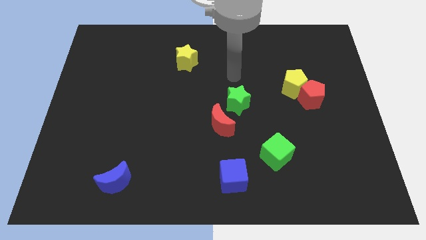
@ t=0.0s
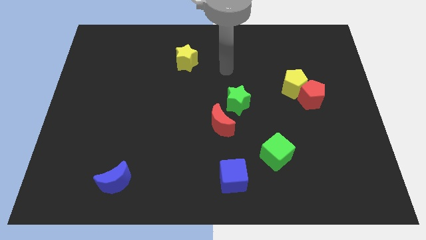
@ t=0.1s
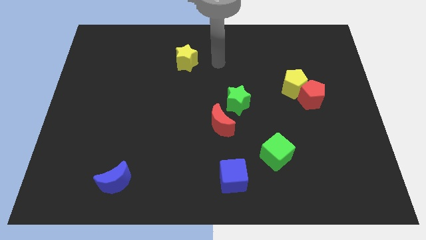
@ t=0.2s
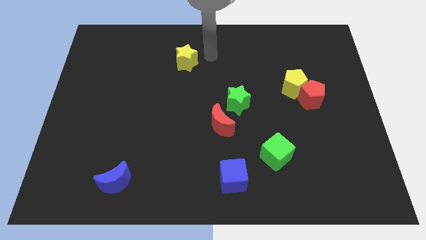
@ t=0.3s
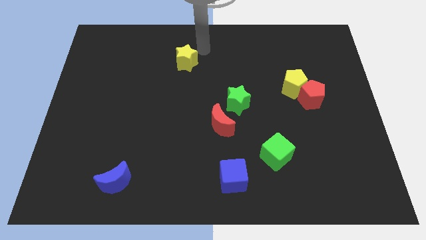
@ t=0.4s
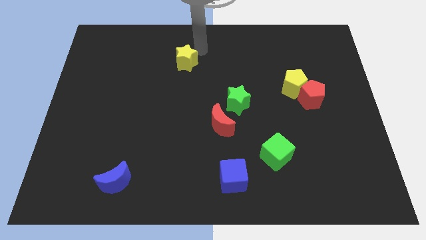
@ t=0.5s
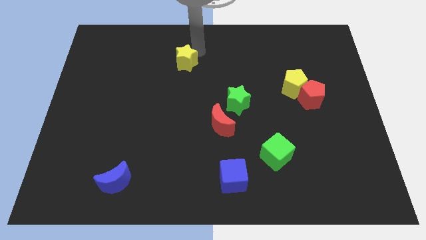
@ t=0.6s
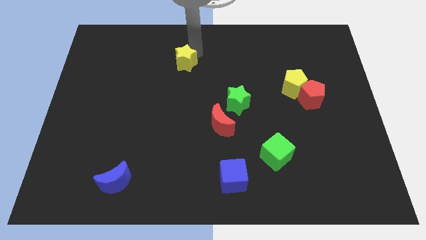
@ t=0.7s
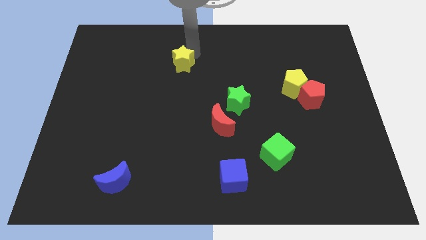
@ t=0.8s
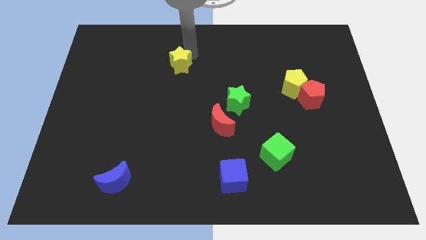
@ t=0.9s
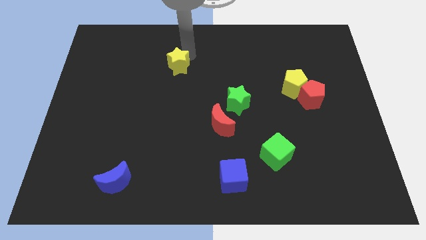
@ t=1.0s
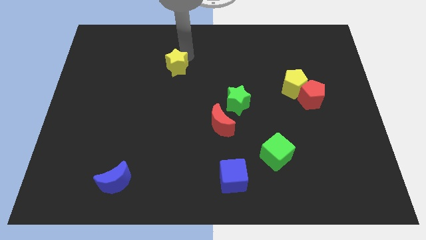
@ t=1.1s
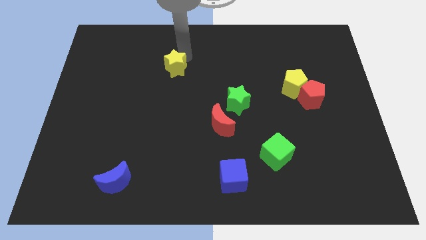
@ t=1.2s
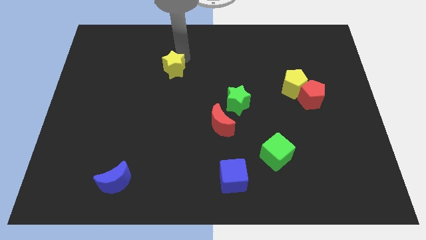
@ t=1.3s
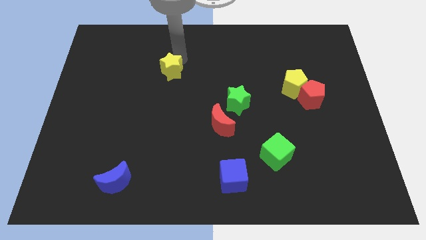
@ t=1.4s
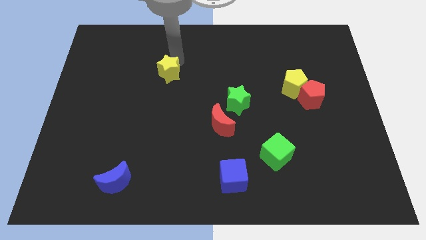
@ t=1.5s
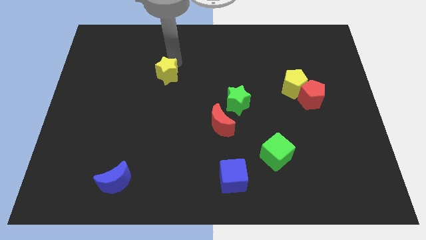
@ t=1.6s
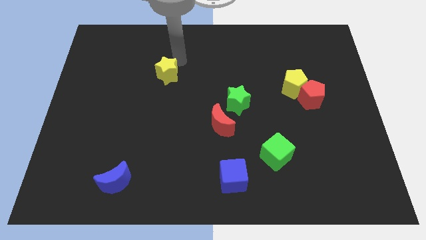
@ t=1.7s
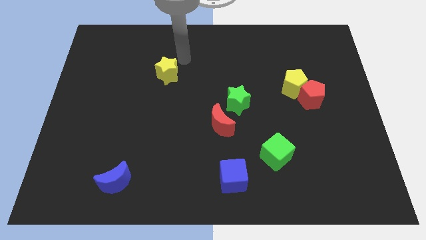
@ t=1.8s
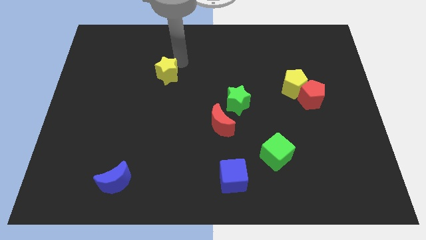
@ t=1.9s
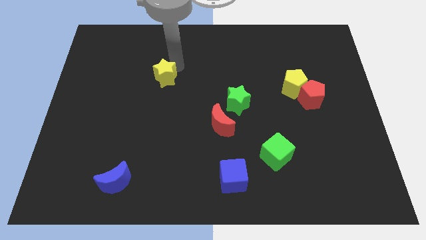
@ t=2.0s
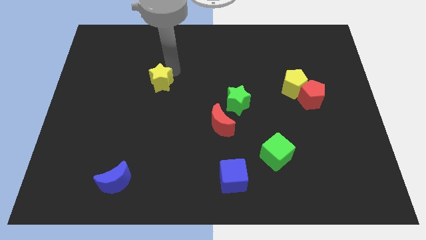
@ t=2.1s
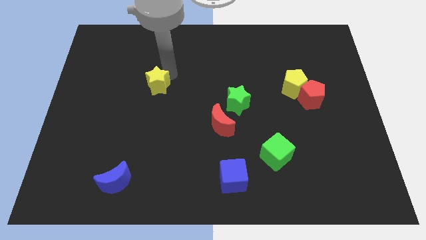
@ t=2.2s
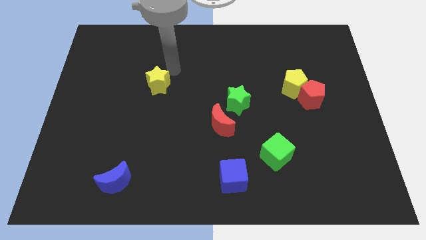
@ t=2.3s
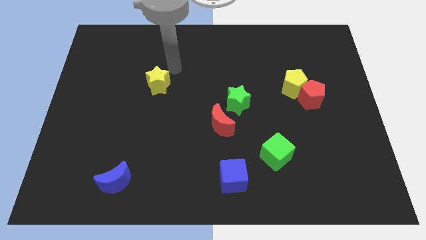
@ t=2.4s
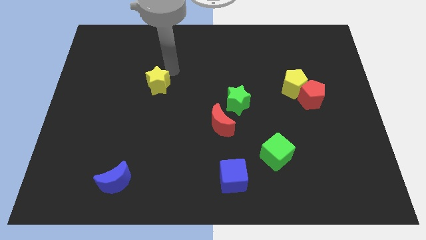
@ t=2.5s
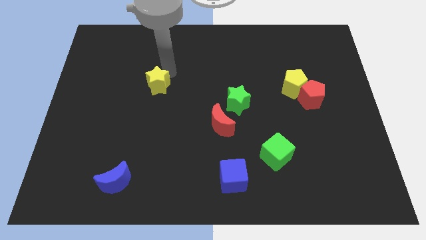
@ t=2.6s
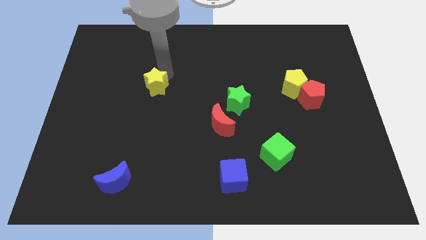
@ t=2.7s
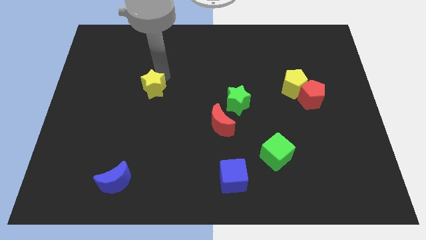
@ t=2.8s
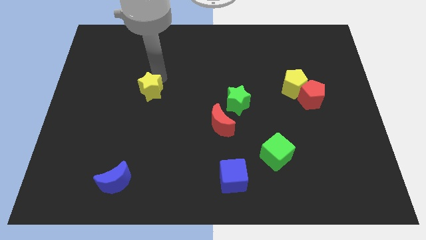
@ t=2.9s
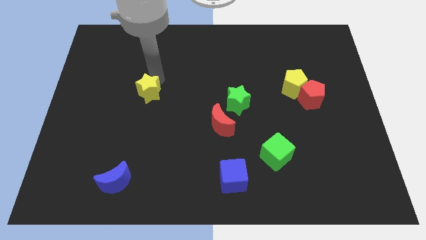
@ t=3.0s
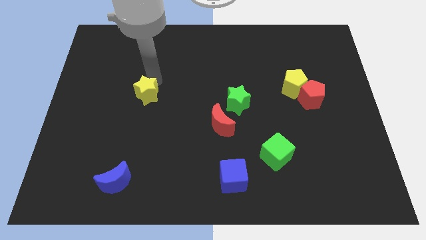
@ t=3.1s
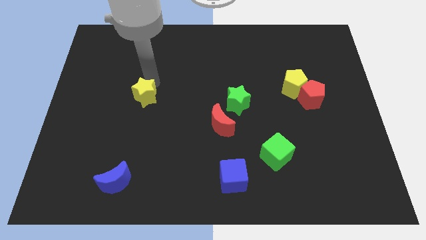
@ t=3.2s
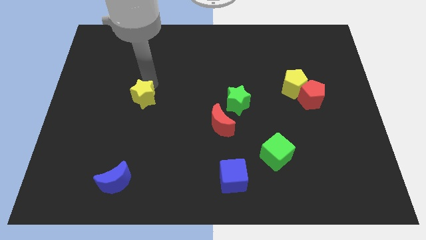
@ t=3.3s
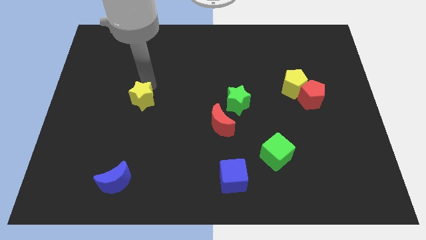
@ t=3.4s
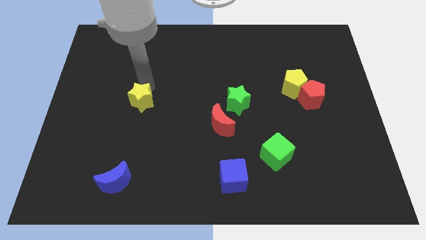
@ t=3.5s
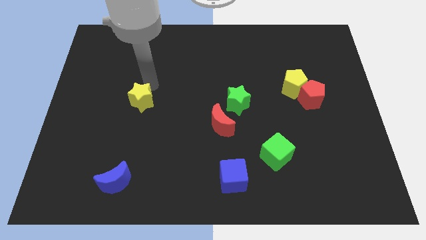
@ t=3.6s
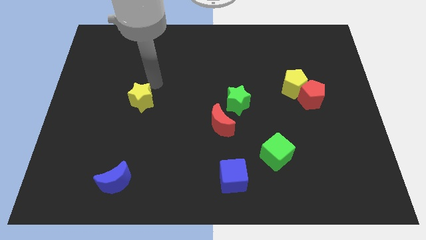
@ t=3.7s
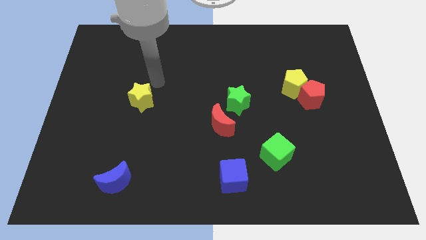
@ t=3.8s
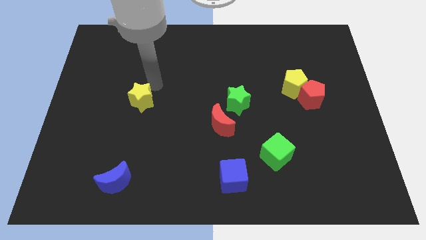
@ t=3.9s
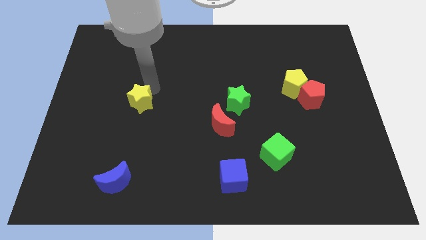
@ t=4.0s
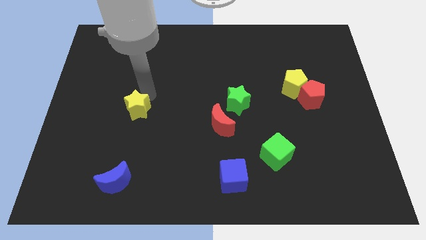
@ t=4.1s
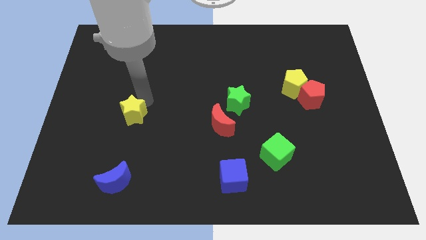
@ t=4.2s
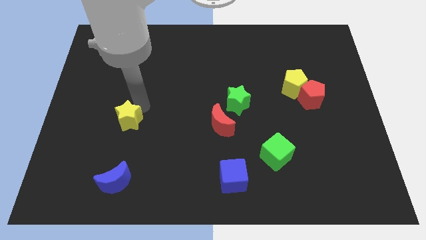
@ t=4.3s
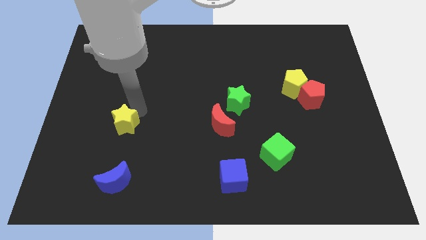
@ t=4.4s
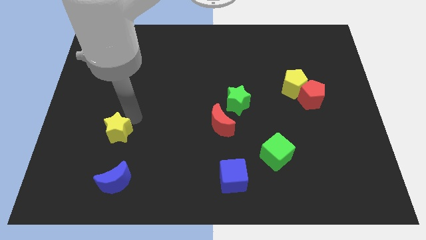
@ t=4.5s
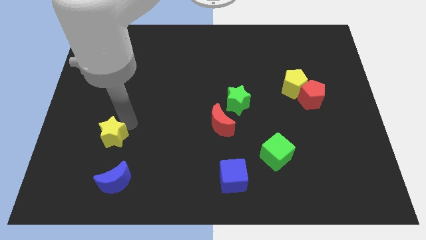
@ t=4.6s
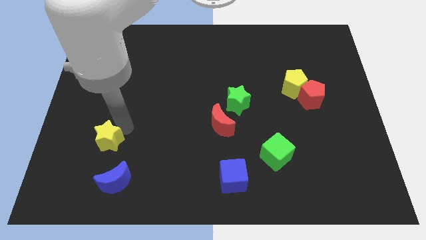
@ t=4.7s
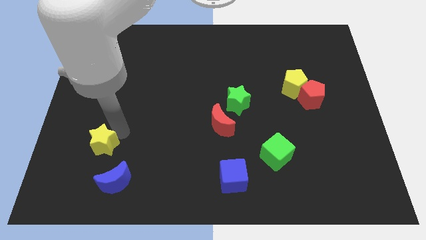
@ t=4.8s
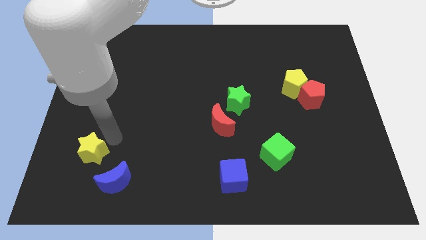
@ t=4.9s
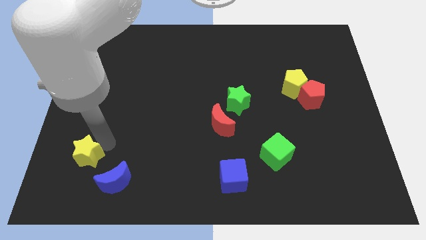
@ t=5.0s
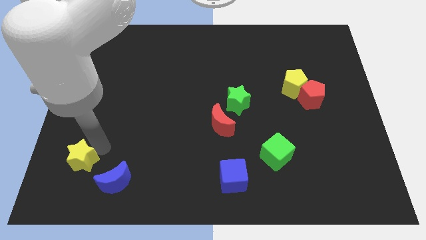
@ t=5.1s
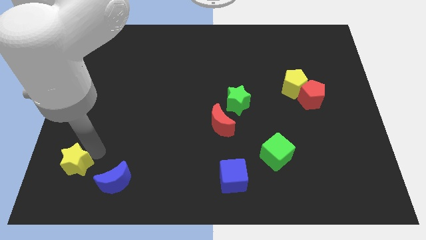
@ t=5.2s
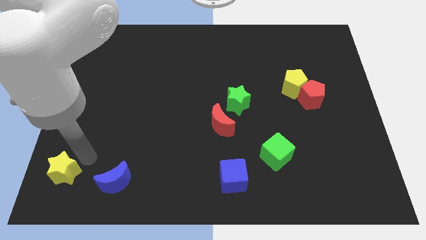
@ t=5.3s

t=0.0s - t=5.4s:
move the yellow star to the bottom left of the board

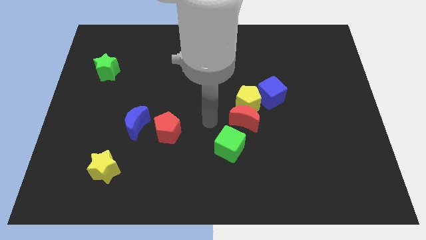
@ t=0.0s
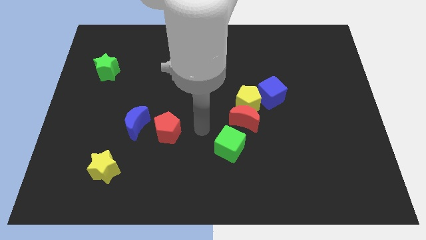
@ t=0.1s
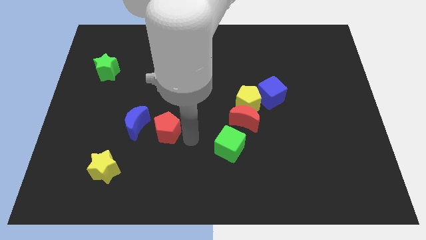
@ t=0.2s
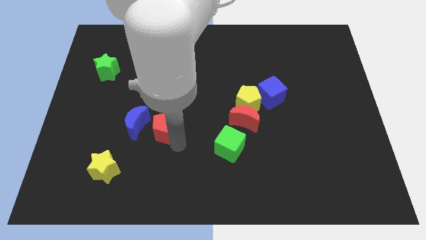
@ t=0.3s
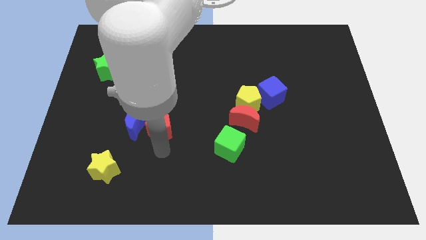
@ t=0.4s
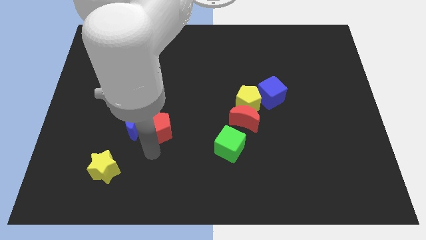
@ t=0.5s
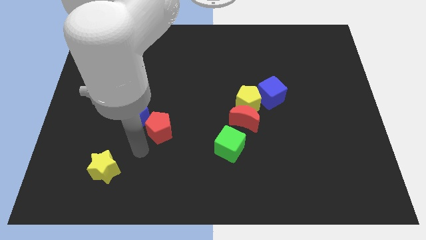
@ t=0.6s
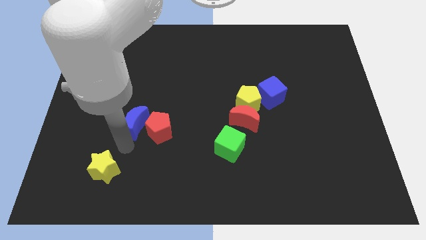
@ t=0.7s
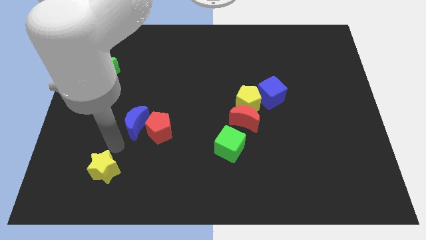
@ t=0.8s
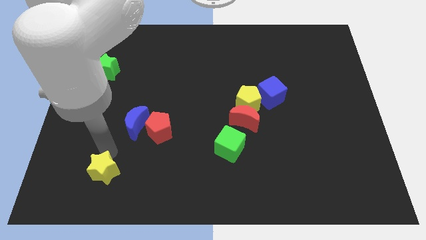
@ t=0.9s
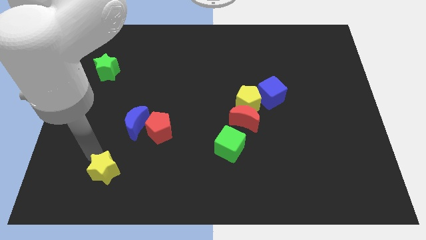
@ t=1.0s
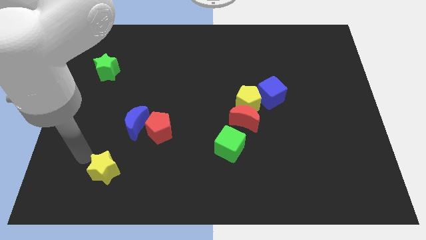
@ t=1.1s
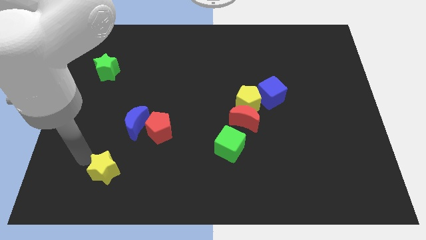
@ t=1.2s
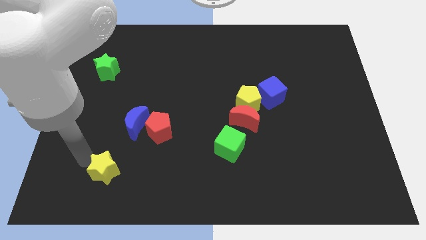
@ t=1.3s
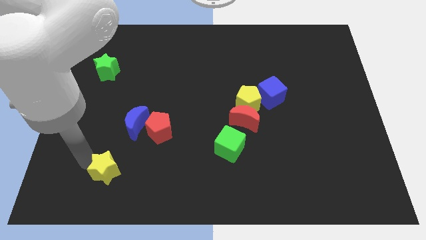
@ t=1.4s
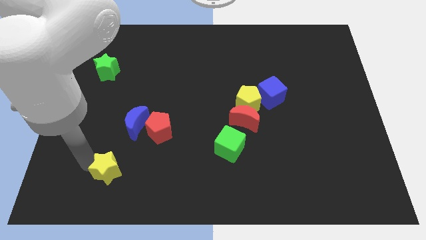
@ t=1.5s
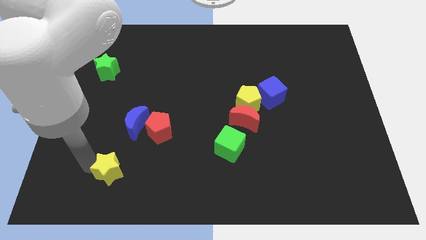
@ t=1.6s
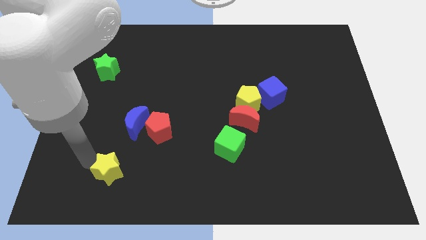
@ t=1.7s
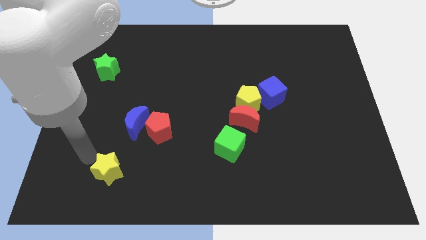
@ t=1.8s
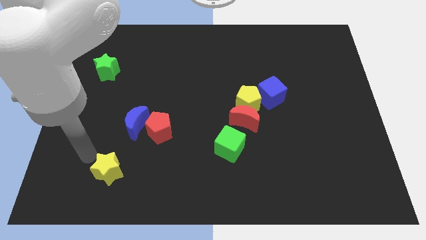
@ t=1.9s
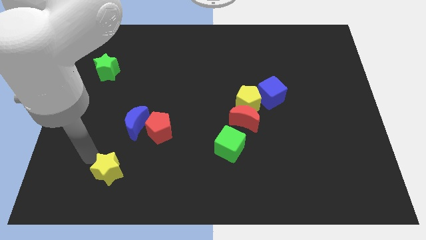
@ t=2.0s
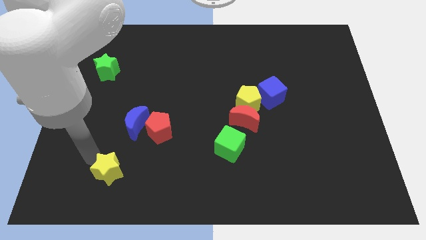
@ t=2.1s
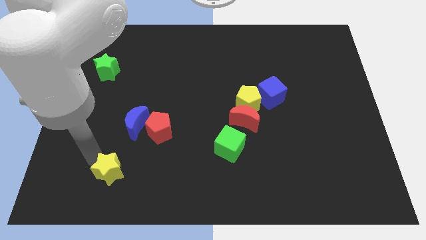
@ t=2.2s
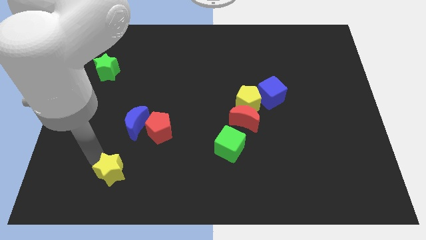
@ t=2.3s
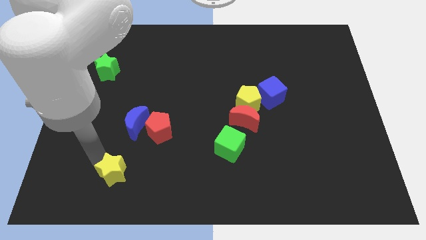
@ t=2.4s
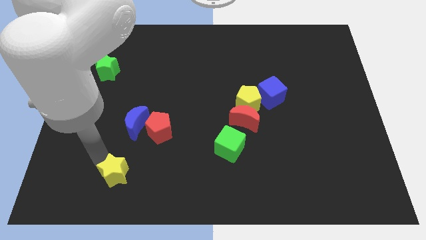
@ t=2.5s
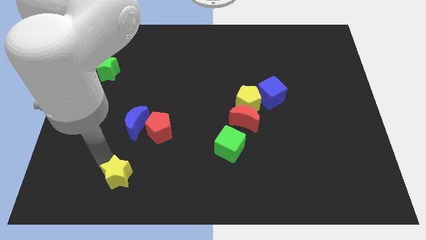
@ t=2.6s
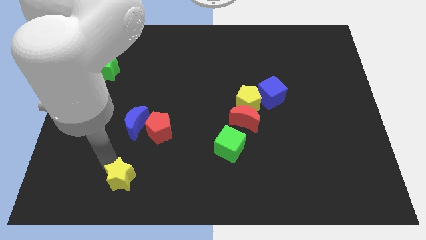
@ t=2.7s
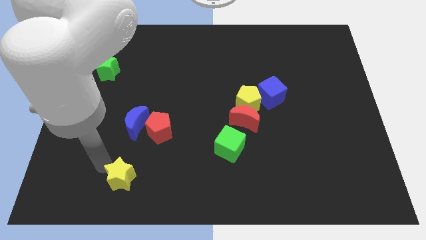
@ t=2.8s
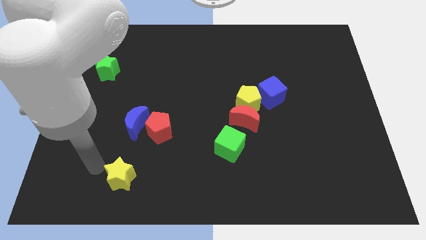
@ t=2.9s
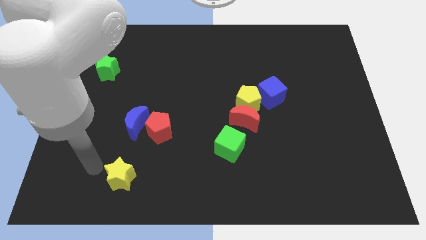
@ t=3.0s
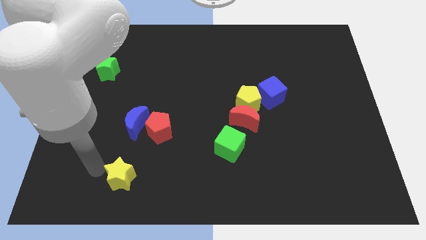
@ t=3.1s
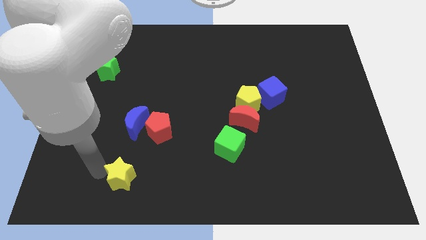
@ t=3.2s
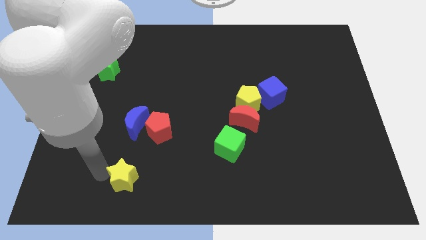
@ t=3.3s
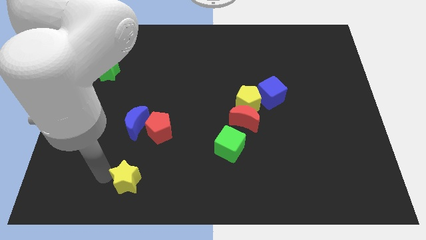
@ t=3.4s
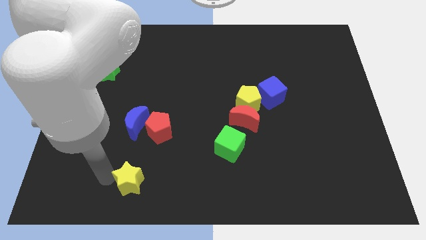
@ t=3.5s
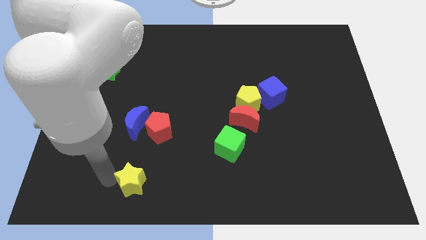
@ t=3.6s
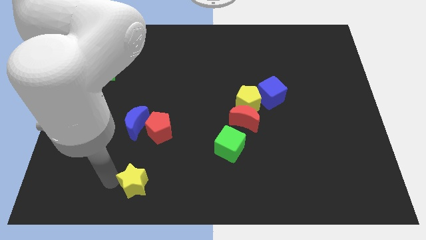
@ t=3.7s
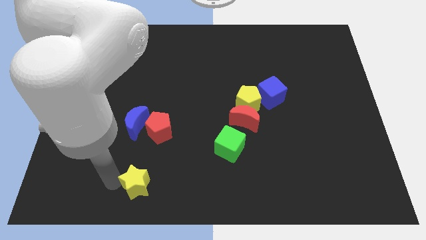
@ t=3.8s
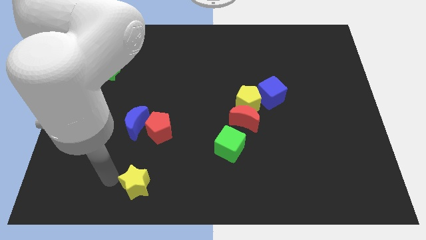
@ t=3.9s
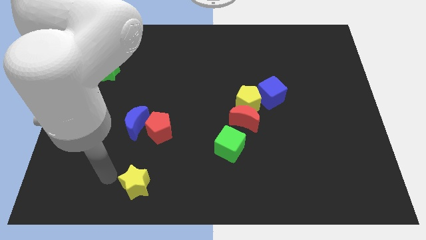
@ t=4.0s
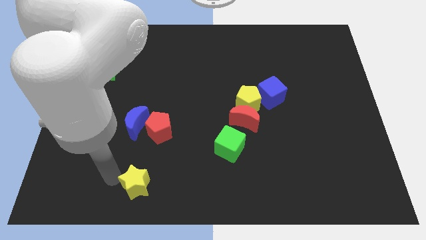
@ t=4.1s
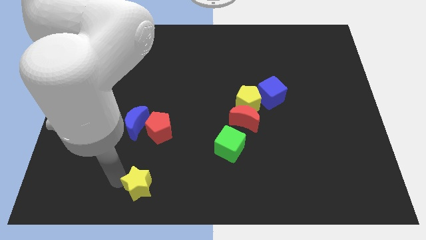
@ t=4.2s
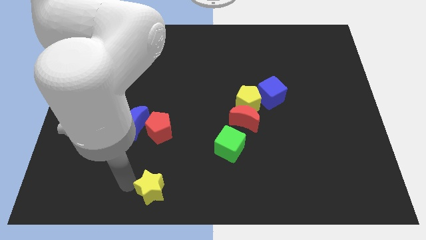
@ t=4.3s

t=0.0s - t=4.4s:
slide the yellow star to the bottom side
